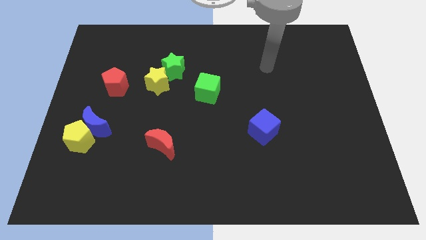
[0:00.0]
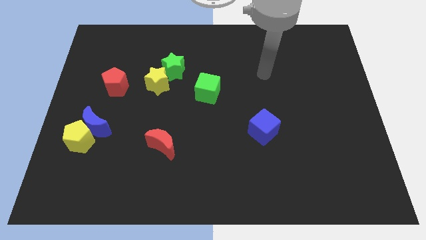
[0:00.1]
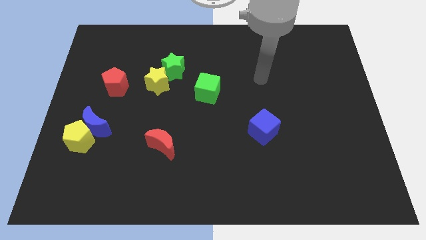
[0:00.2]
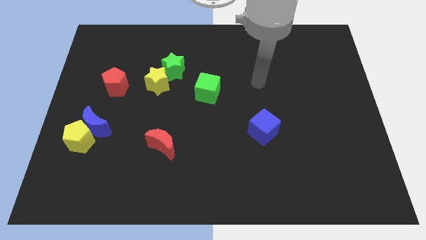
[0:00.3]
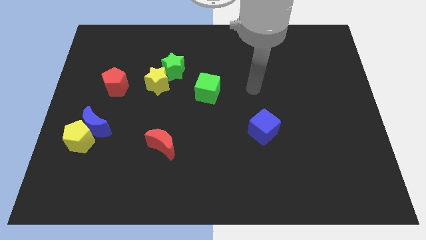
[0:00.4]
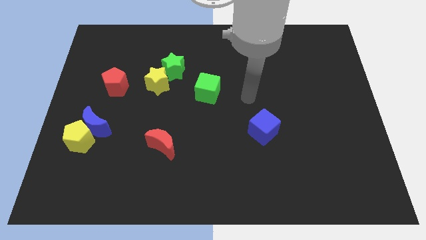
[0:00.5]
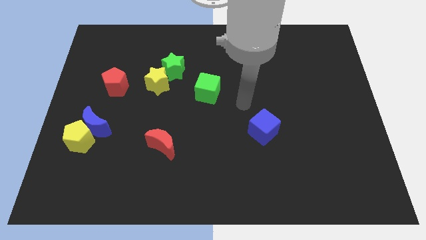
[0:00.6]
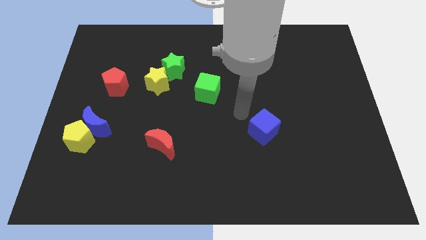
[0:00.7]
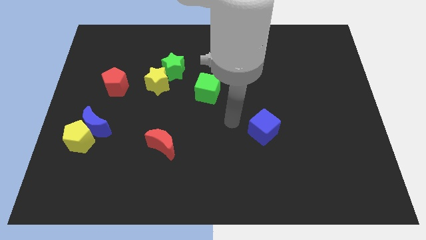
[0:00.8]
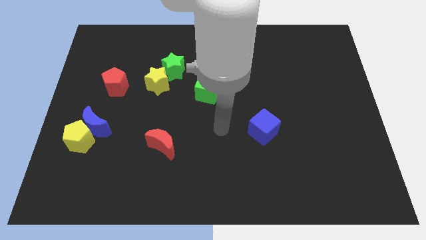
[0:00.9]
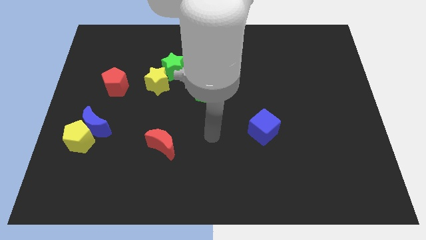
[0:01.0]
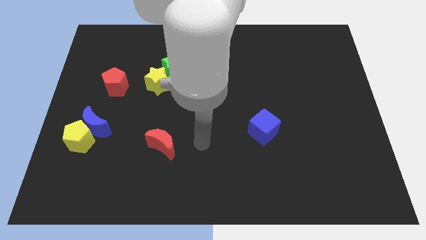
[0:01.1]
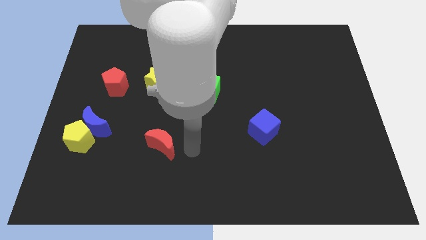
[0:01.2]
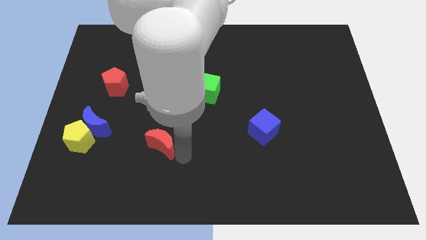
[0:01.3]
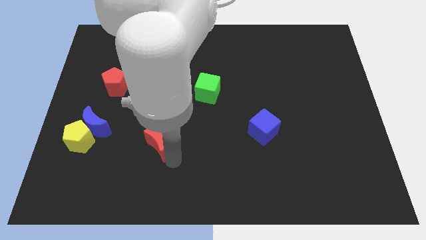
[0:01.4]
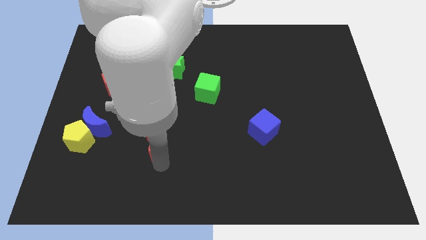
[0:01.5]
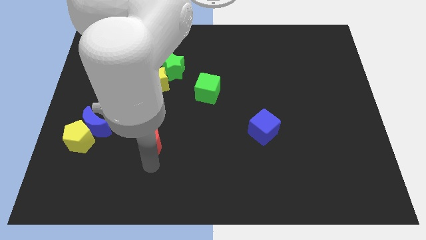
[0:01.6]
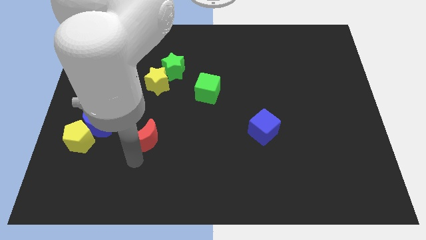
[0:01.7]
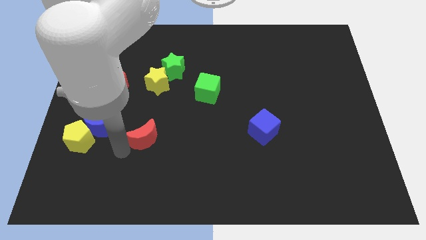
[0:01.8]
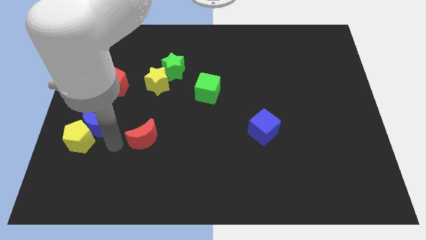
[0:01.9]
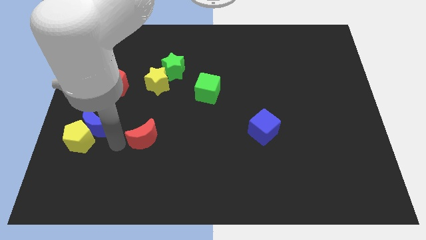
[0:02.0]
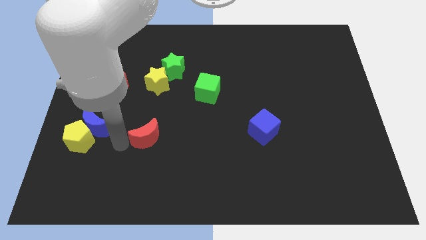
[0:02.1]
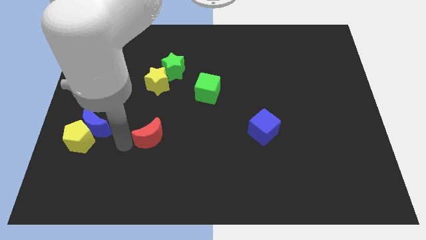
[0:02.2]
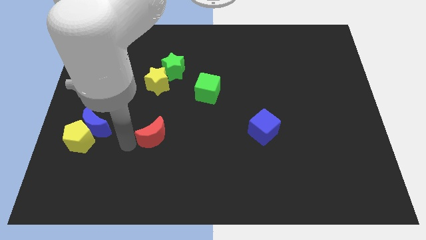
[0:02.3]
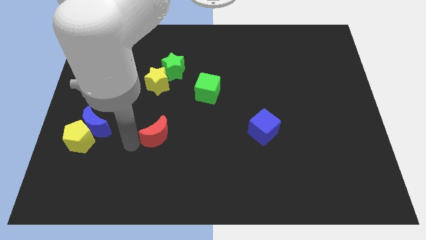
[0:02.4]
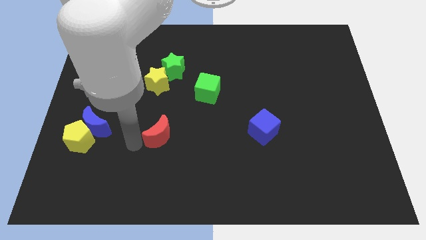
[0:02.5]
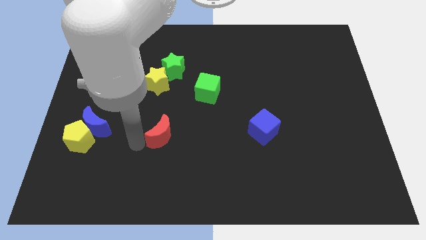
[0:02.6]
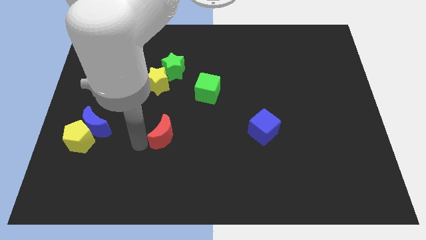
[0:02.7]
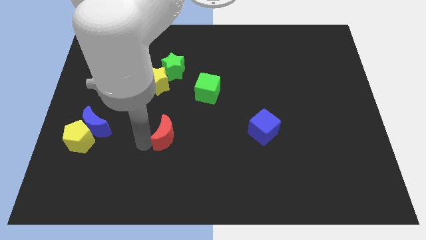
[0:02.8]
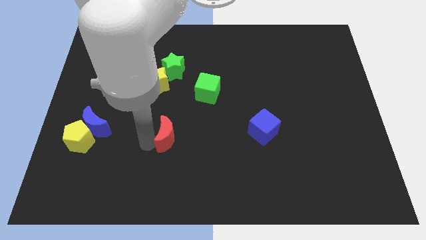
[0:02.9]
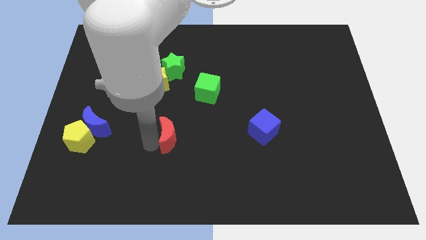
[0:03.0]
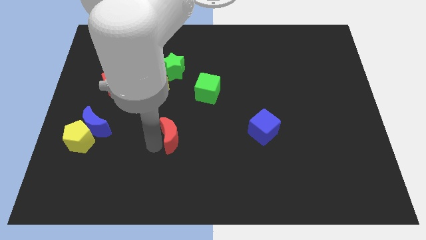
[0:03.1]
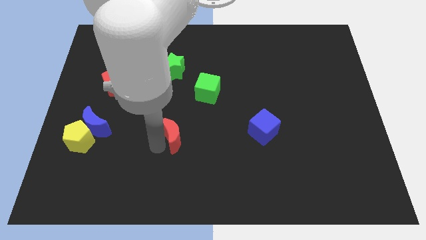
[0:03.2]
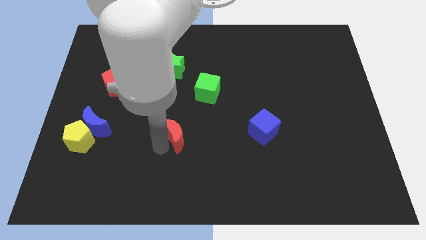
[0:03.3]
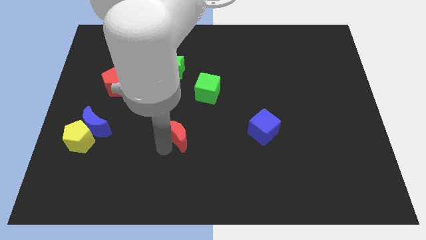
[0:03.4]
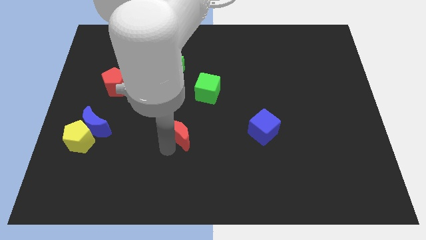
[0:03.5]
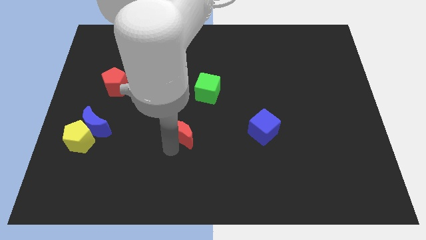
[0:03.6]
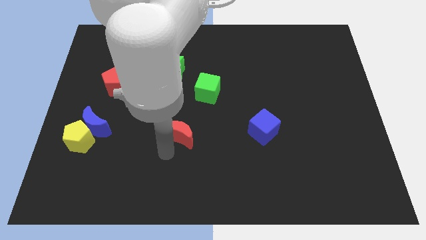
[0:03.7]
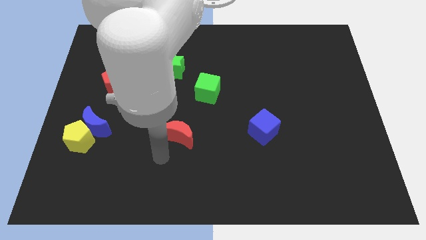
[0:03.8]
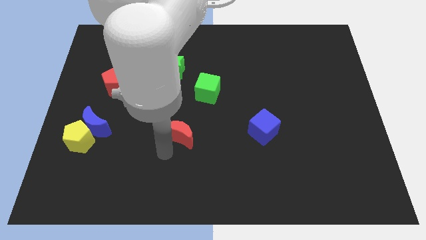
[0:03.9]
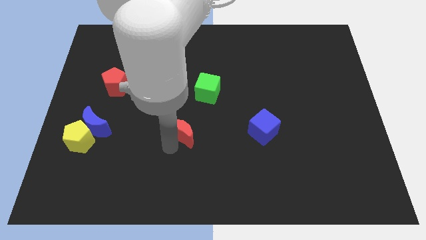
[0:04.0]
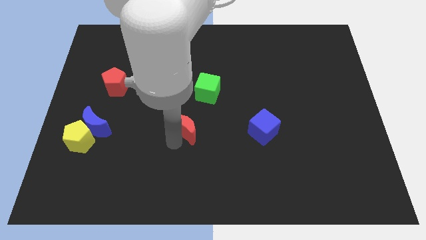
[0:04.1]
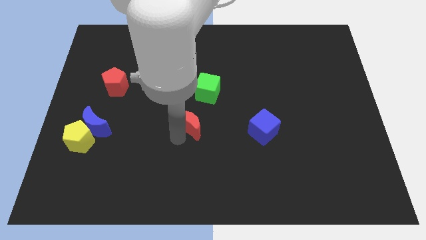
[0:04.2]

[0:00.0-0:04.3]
move the red moon diagonally upwards and to the right a little

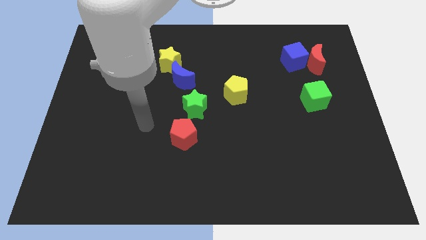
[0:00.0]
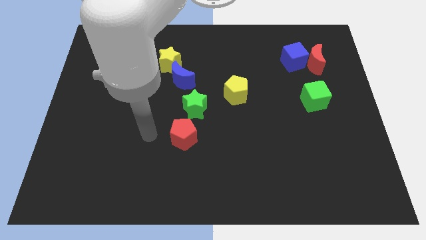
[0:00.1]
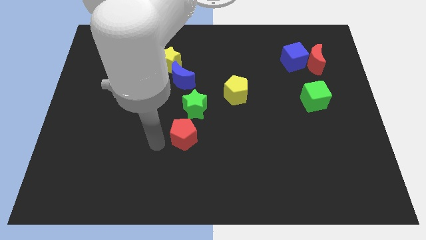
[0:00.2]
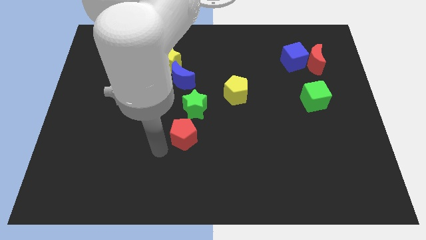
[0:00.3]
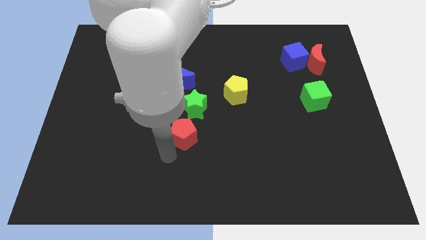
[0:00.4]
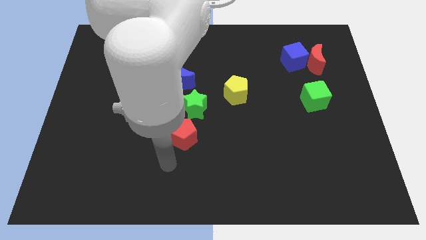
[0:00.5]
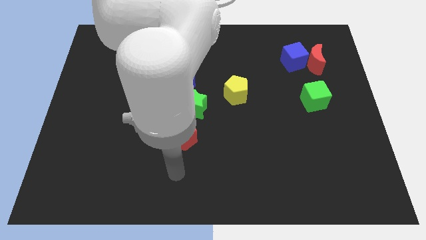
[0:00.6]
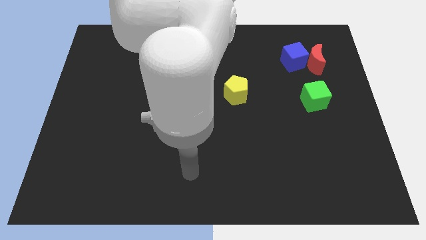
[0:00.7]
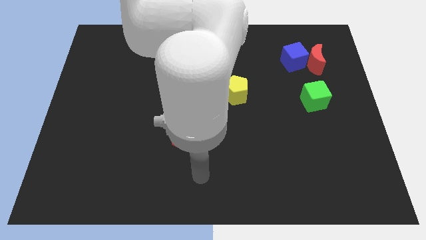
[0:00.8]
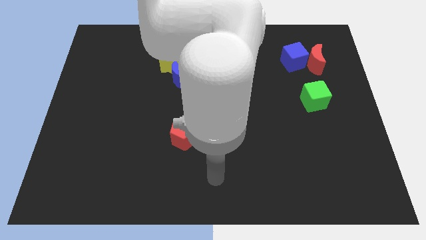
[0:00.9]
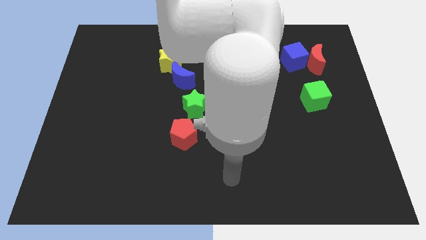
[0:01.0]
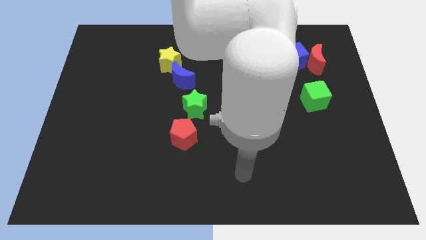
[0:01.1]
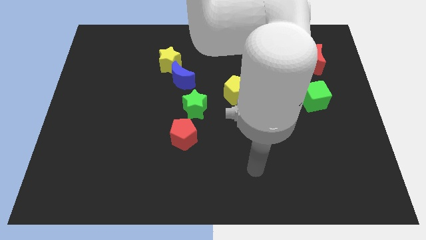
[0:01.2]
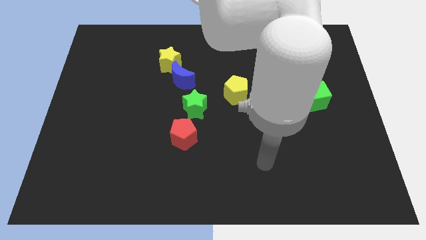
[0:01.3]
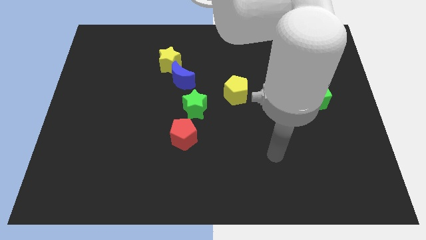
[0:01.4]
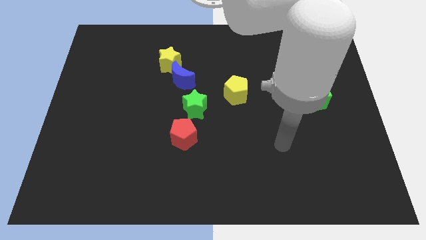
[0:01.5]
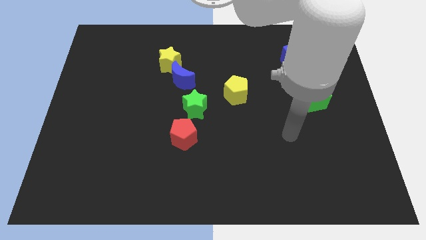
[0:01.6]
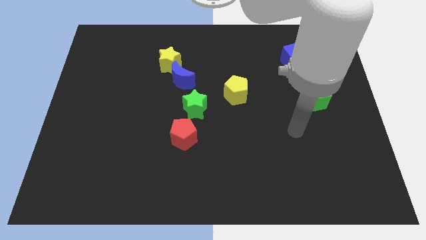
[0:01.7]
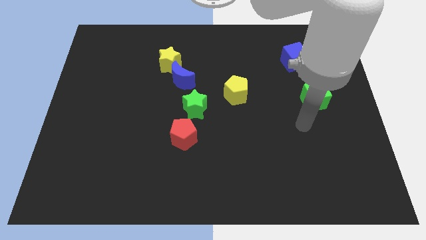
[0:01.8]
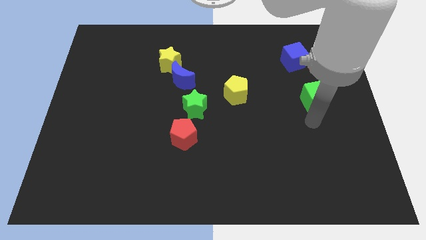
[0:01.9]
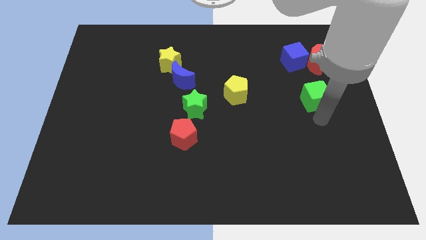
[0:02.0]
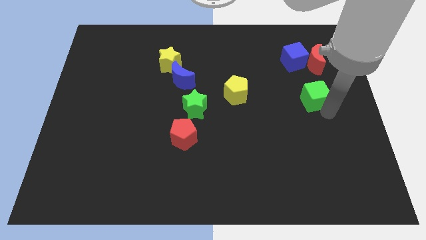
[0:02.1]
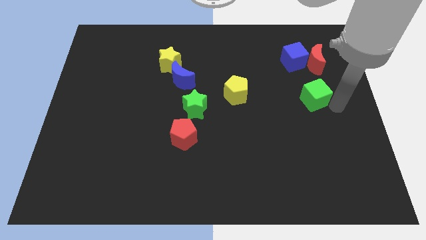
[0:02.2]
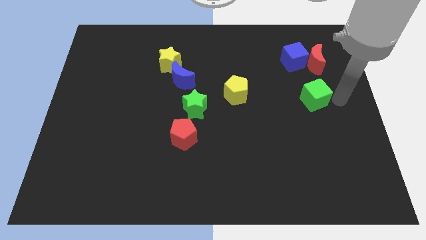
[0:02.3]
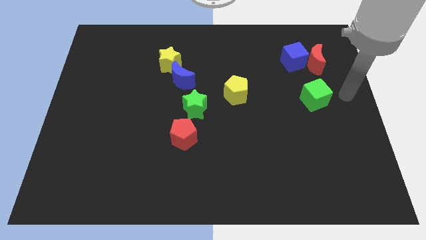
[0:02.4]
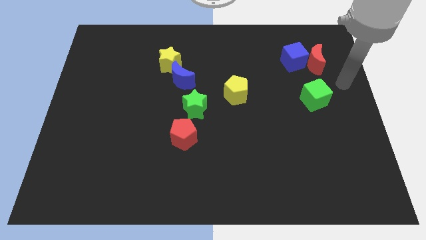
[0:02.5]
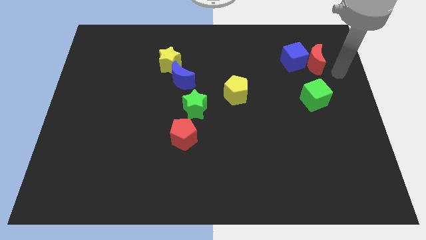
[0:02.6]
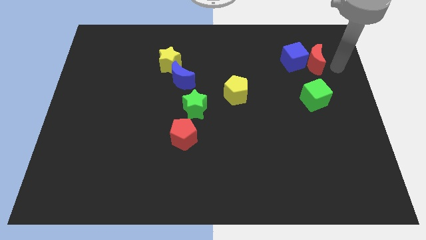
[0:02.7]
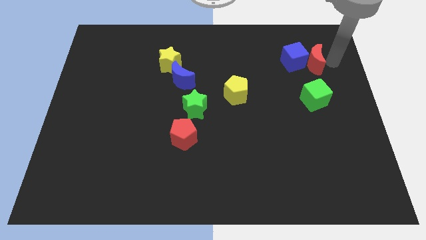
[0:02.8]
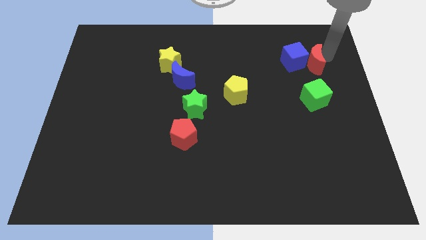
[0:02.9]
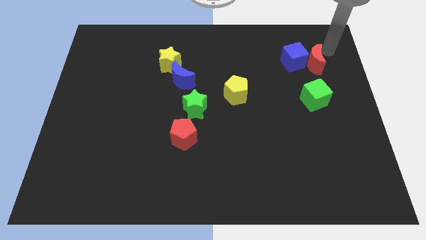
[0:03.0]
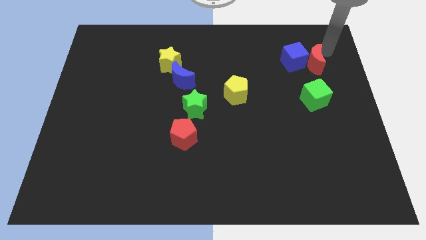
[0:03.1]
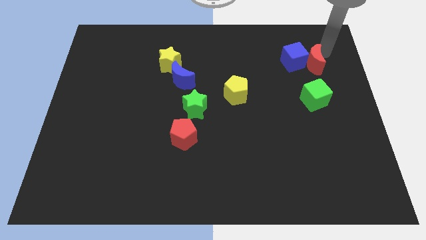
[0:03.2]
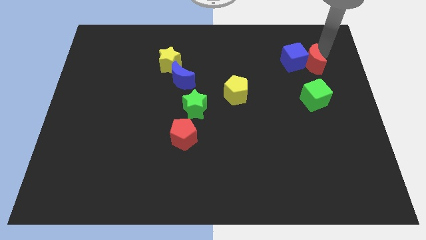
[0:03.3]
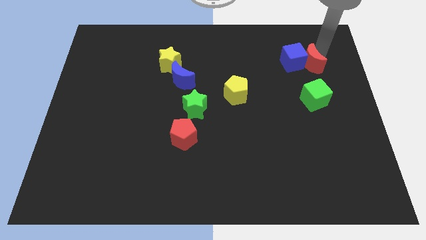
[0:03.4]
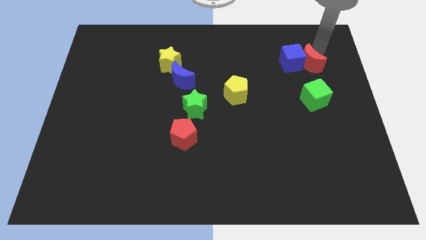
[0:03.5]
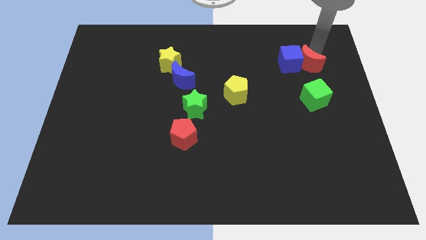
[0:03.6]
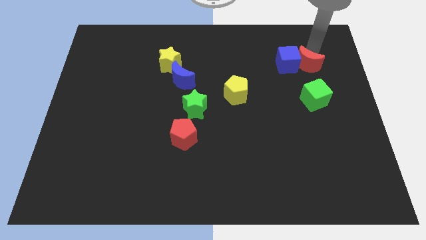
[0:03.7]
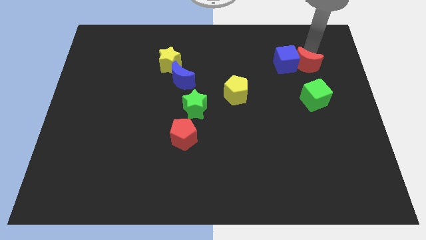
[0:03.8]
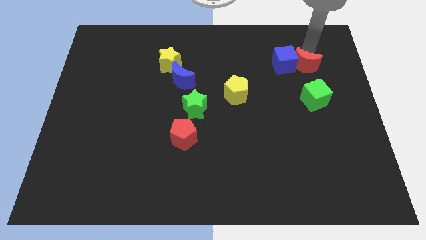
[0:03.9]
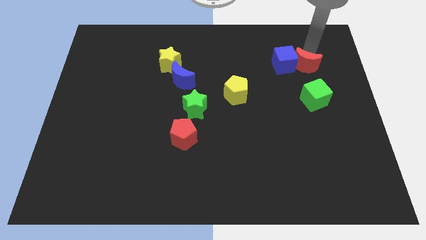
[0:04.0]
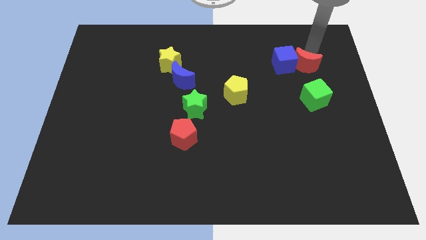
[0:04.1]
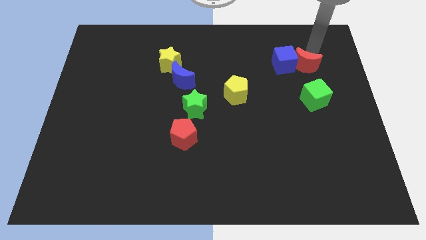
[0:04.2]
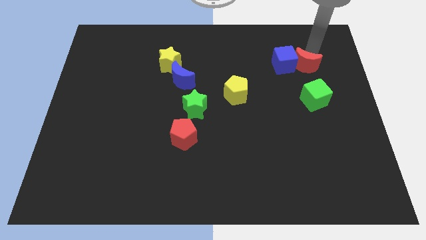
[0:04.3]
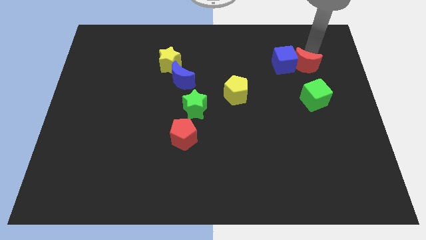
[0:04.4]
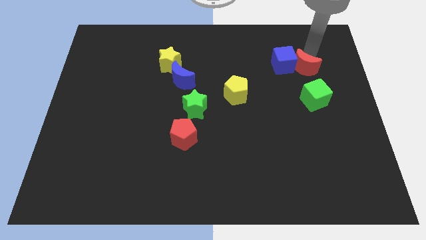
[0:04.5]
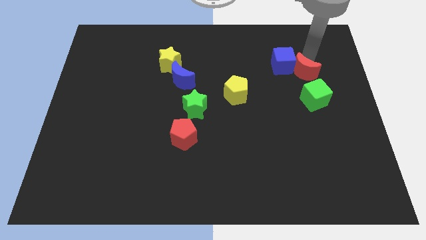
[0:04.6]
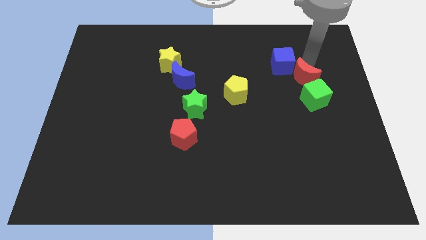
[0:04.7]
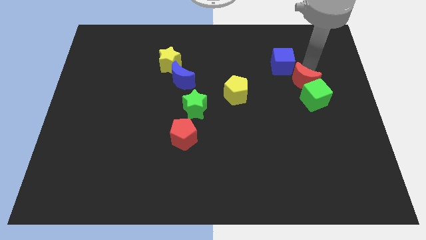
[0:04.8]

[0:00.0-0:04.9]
slightly move the red moon downwards and left
